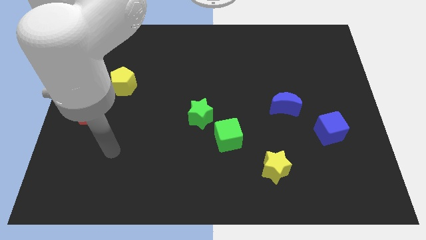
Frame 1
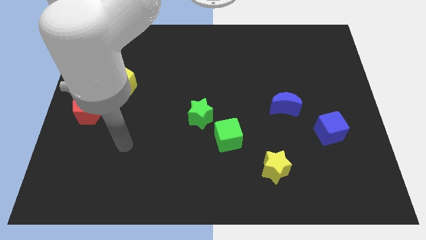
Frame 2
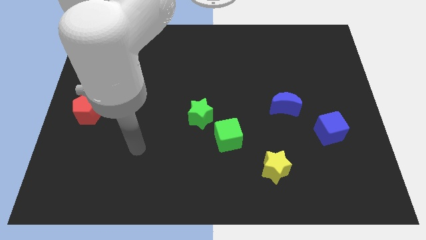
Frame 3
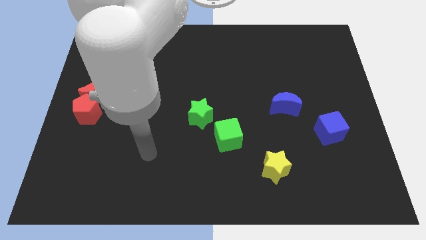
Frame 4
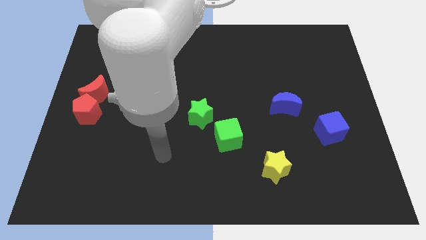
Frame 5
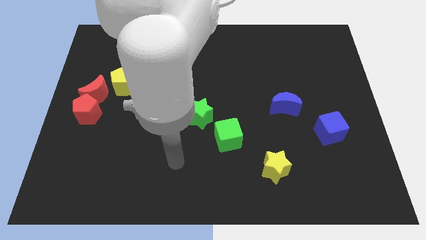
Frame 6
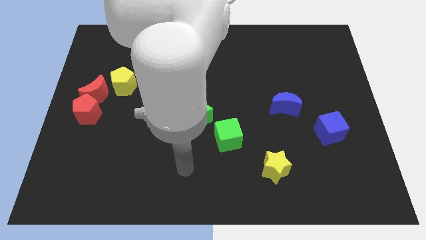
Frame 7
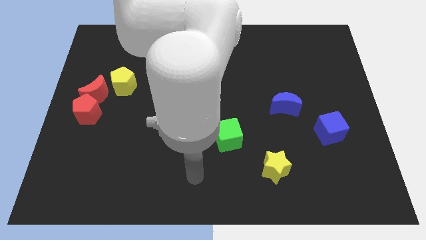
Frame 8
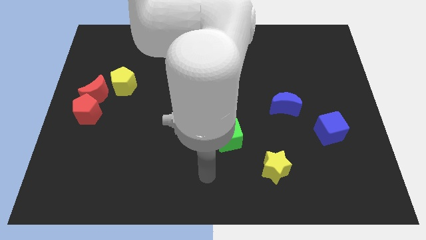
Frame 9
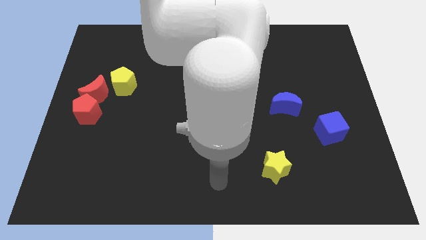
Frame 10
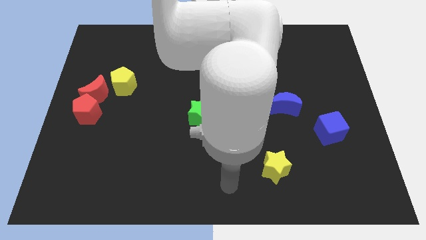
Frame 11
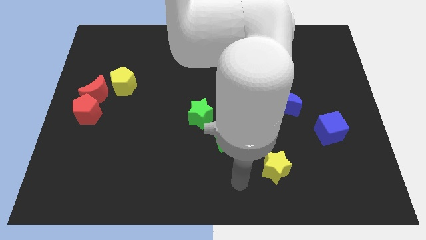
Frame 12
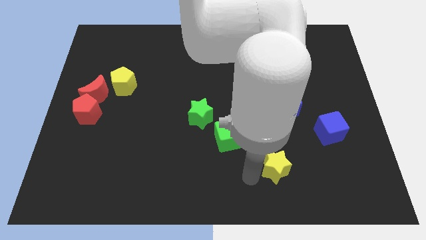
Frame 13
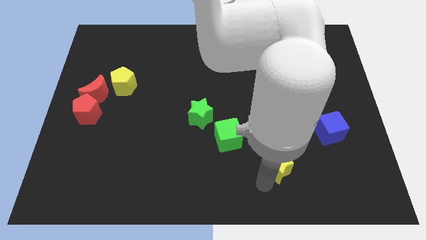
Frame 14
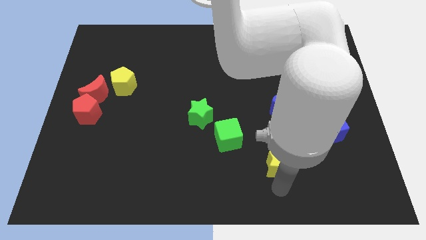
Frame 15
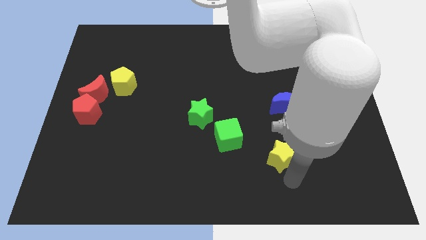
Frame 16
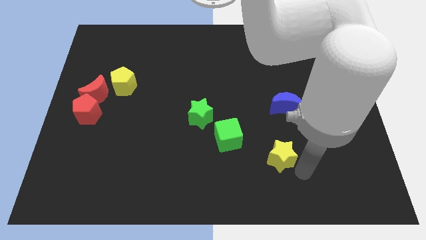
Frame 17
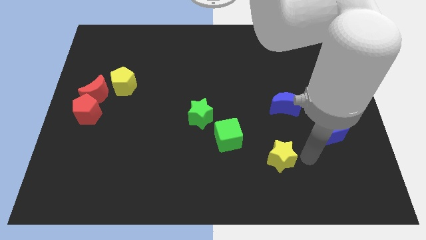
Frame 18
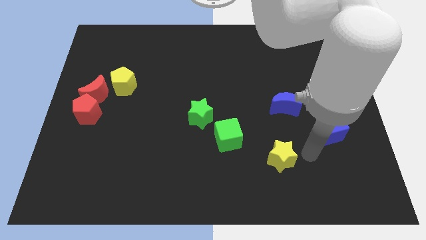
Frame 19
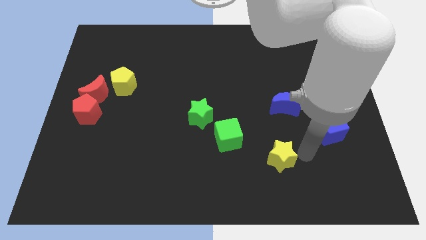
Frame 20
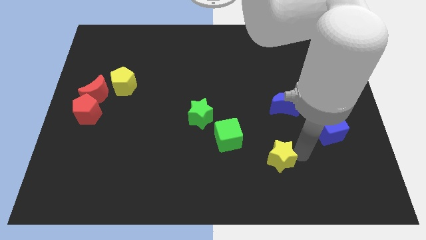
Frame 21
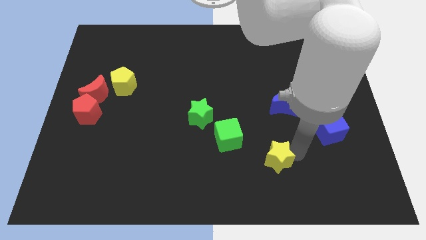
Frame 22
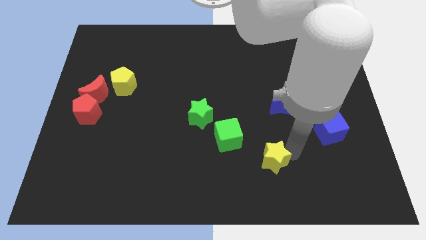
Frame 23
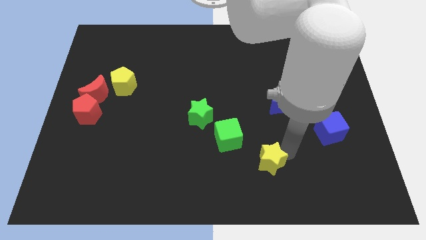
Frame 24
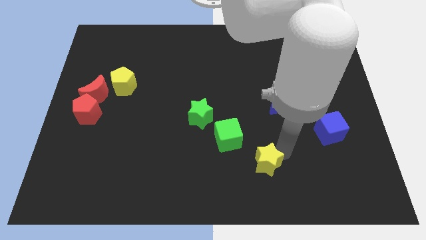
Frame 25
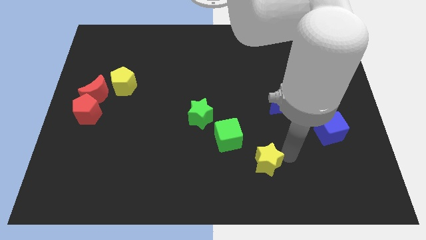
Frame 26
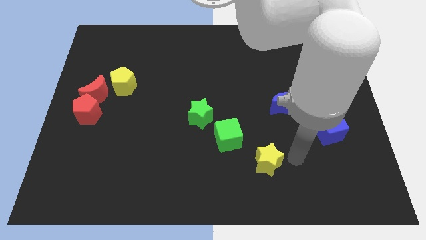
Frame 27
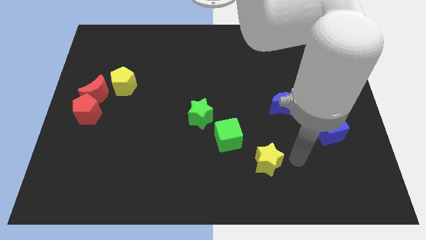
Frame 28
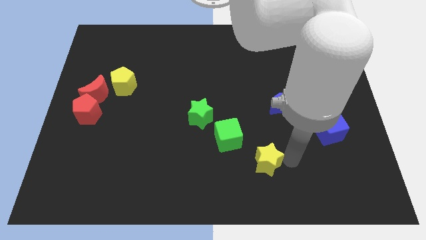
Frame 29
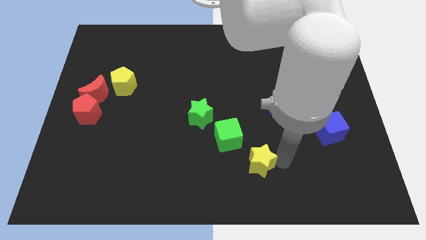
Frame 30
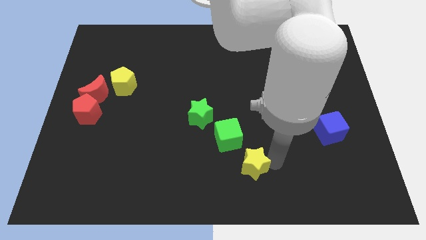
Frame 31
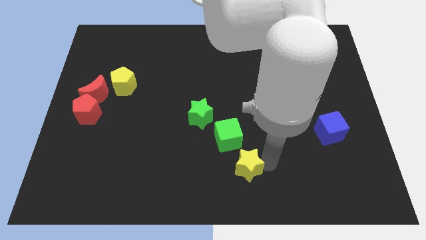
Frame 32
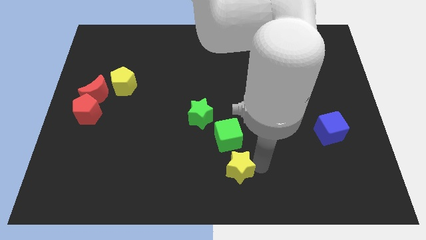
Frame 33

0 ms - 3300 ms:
slightly move the yellow star left

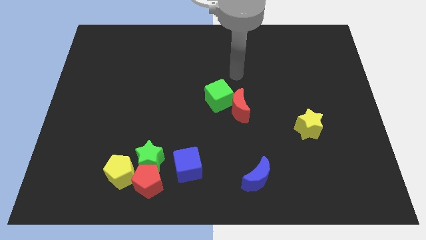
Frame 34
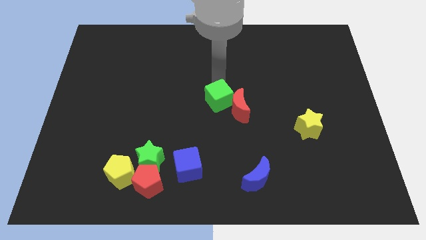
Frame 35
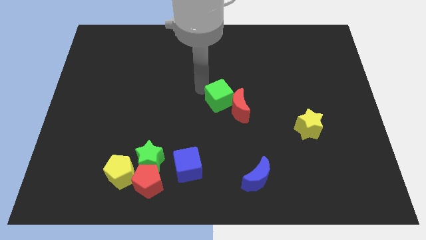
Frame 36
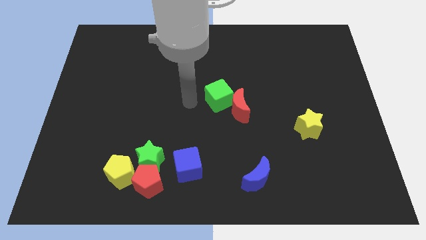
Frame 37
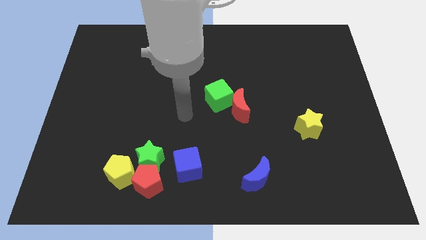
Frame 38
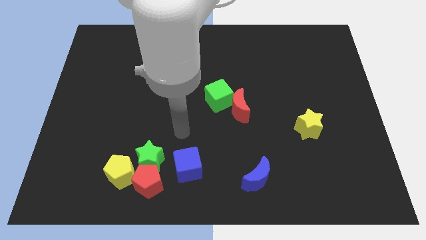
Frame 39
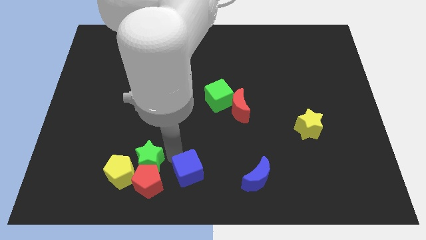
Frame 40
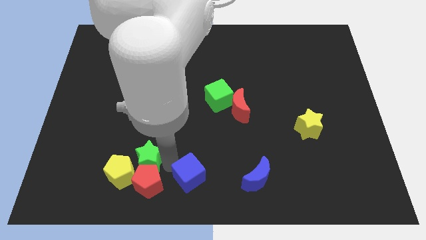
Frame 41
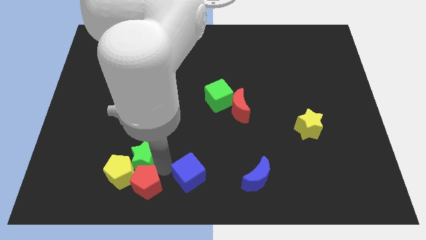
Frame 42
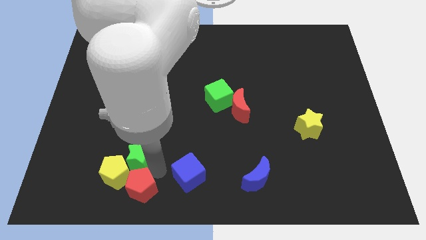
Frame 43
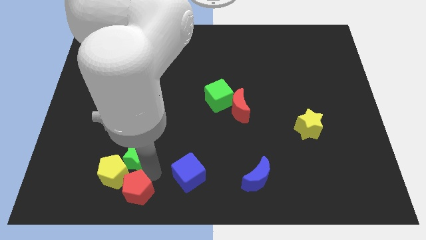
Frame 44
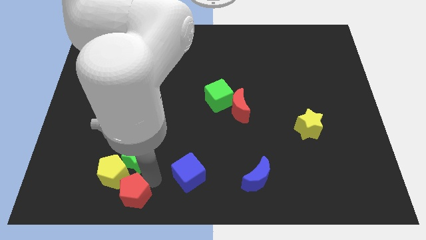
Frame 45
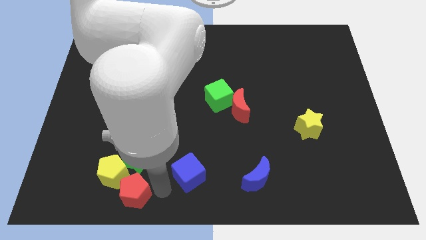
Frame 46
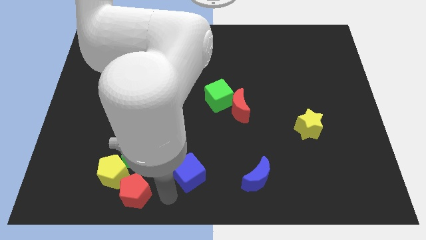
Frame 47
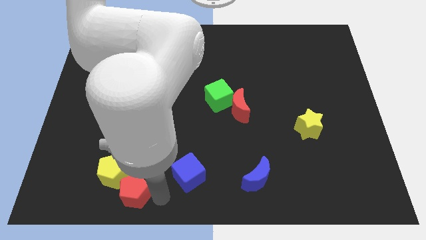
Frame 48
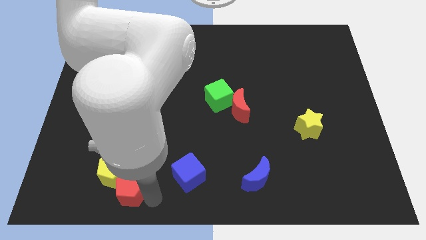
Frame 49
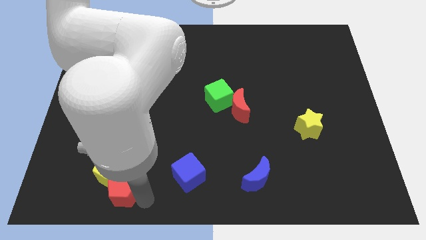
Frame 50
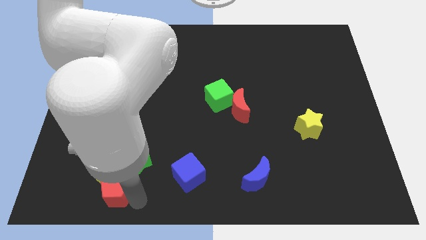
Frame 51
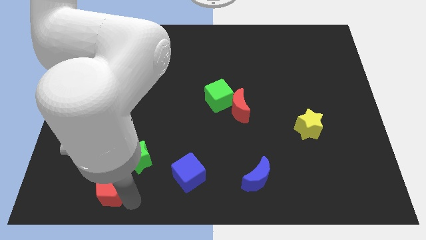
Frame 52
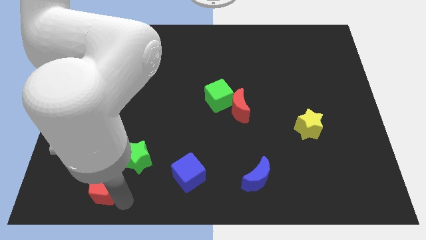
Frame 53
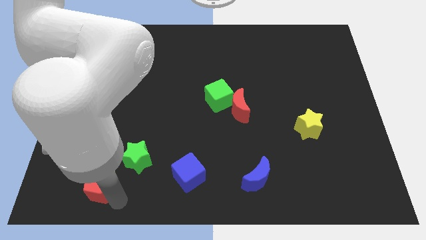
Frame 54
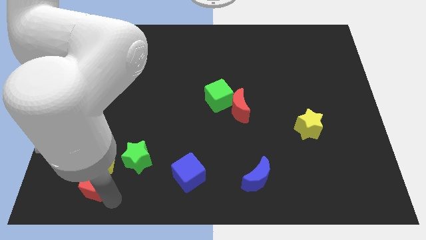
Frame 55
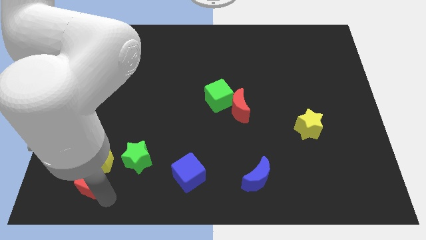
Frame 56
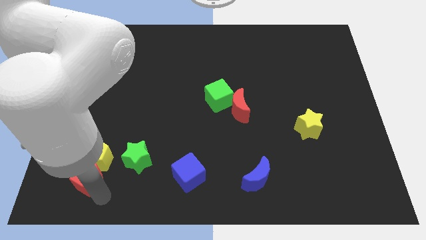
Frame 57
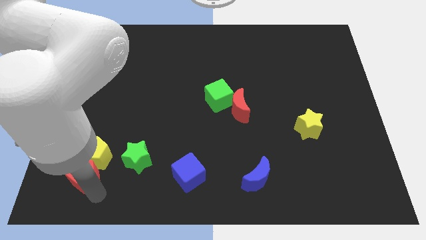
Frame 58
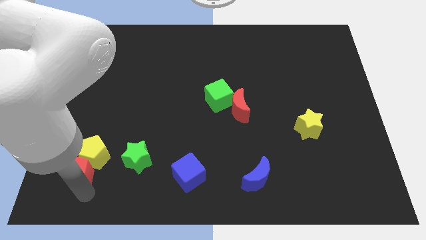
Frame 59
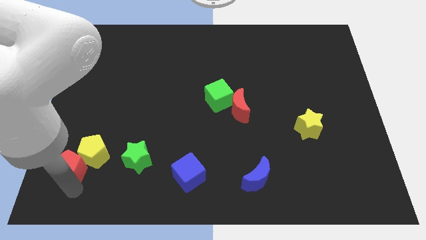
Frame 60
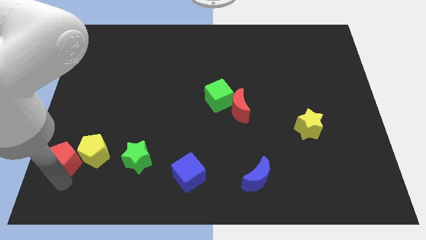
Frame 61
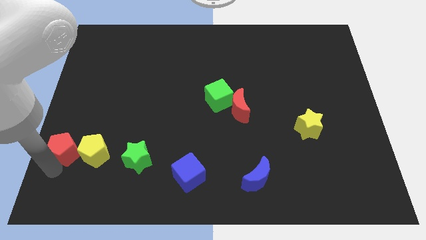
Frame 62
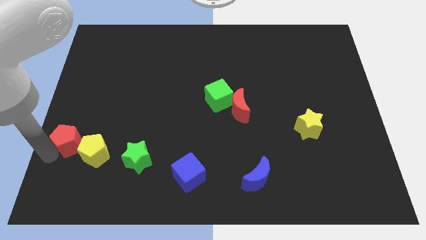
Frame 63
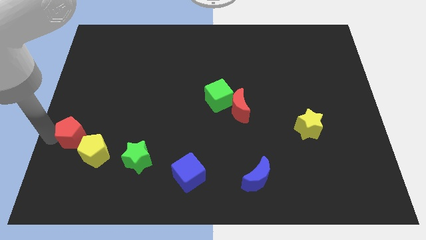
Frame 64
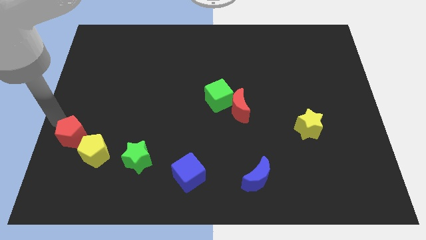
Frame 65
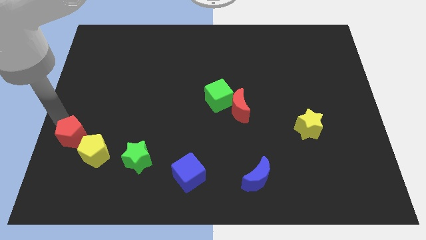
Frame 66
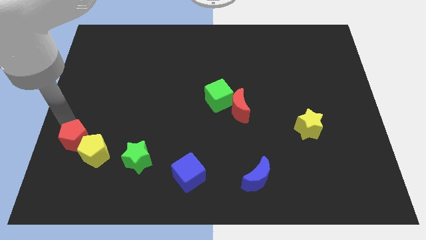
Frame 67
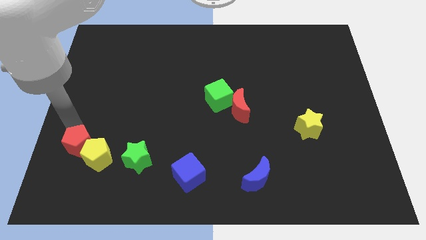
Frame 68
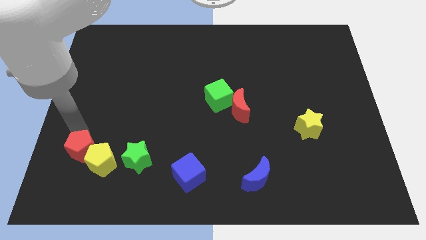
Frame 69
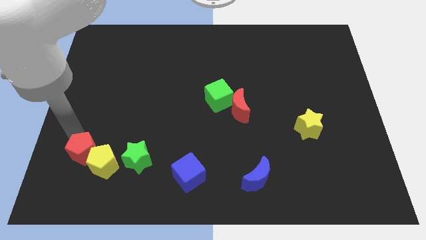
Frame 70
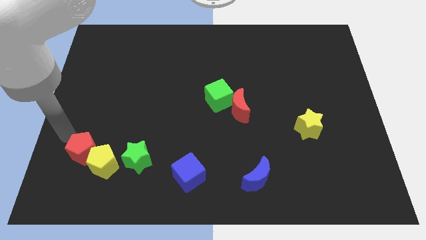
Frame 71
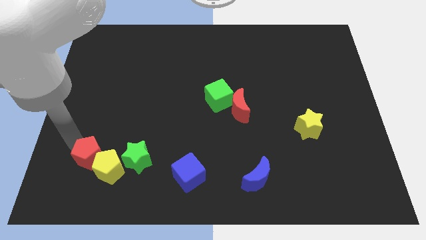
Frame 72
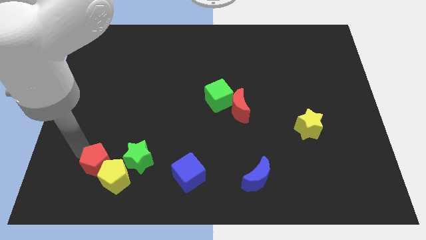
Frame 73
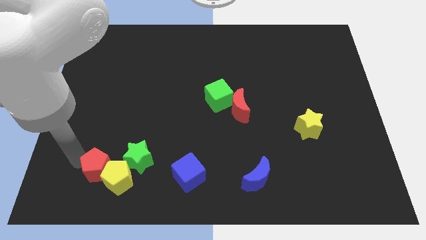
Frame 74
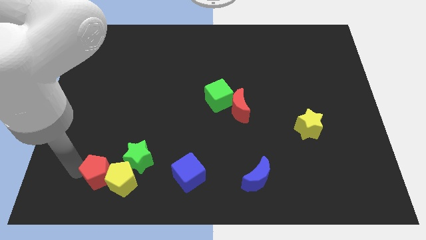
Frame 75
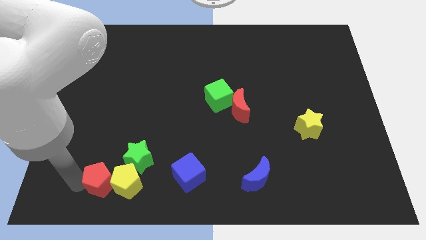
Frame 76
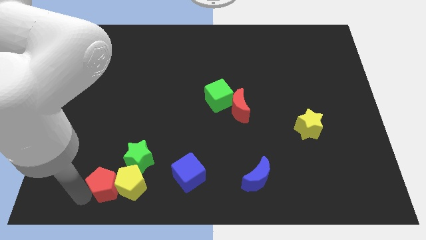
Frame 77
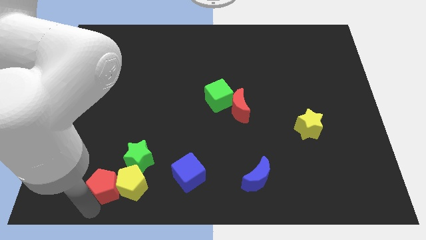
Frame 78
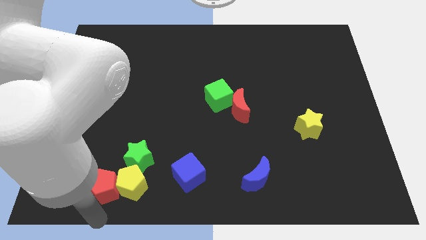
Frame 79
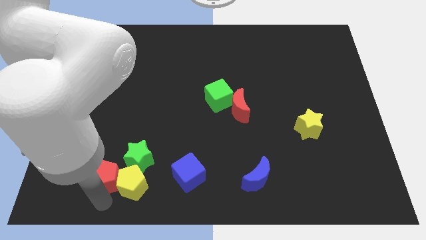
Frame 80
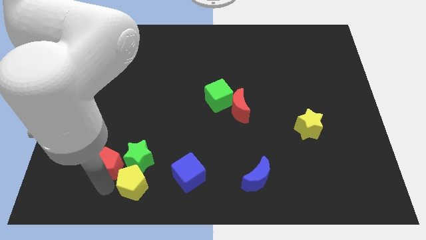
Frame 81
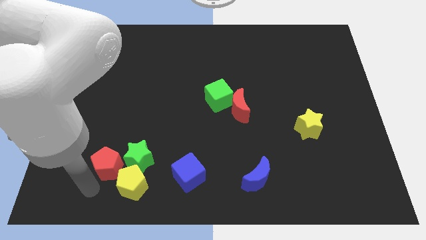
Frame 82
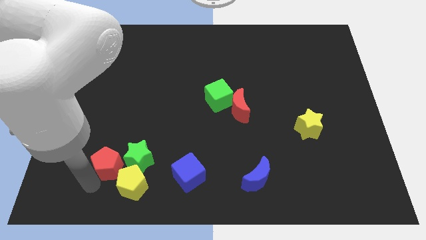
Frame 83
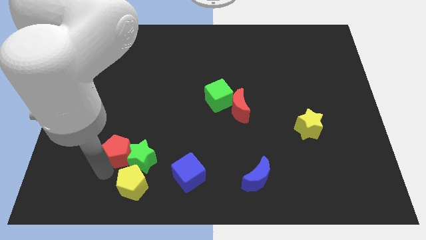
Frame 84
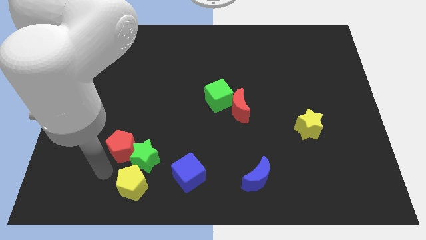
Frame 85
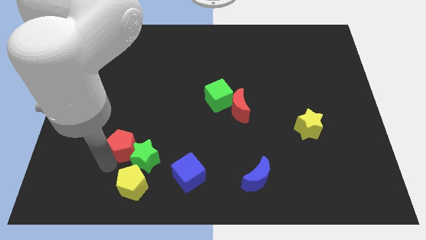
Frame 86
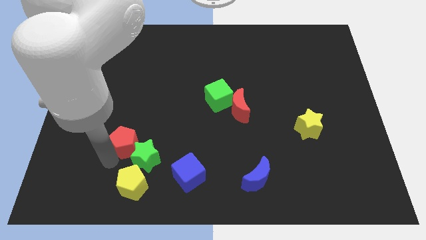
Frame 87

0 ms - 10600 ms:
move the red pentagon a bit up
